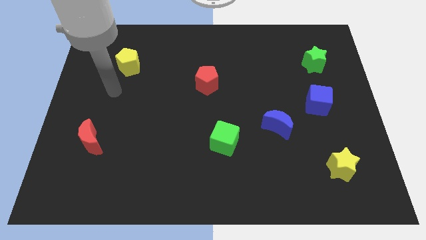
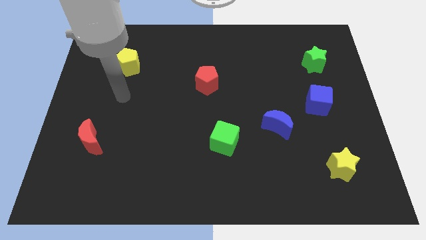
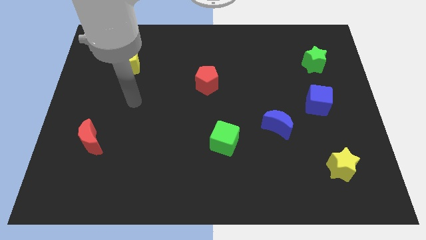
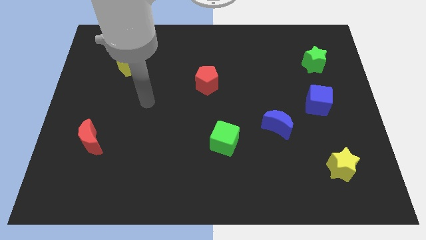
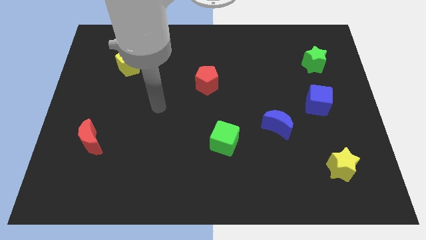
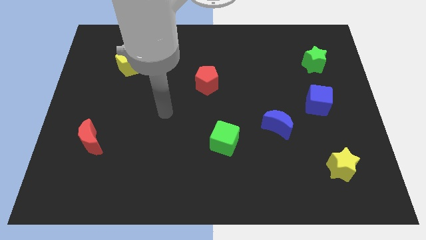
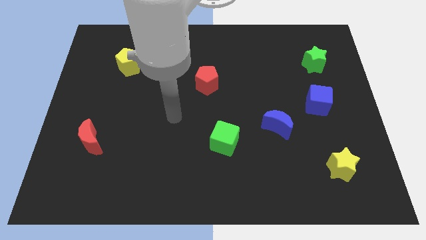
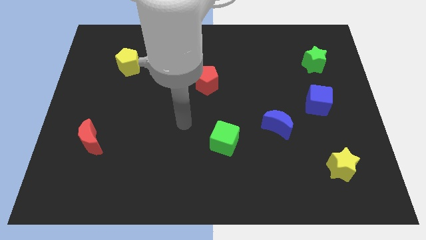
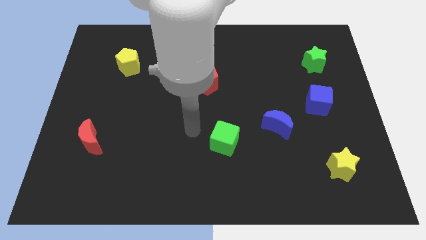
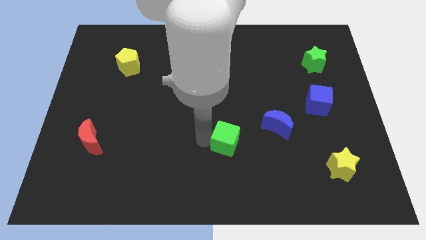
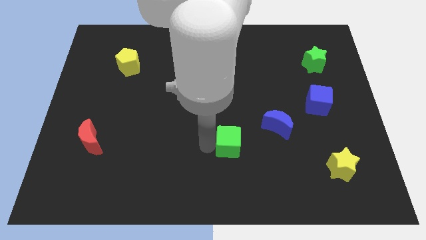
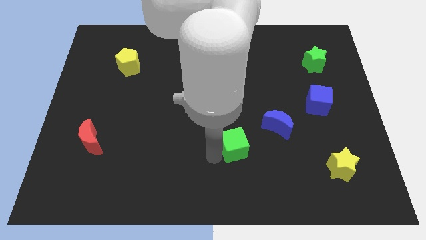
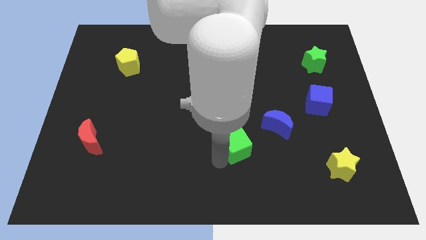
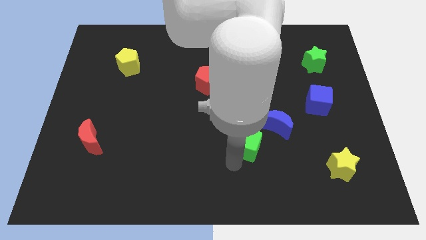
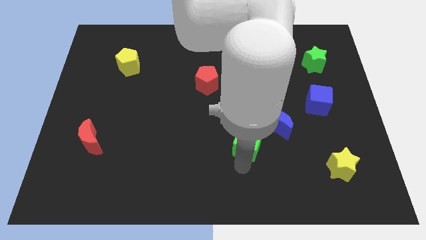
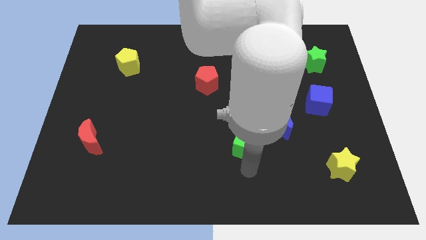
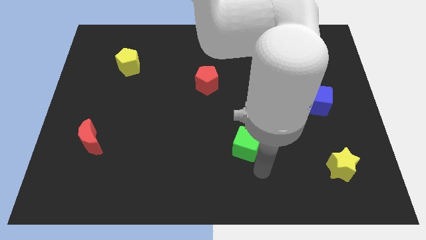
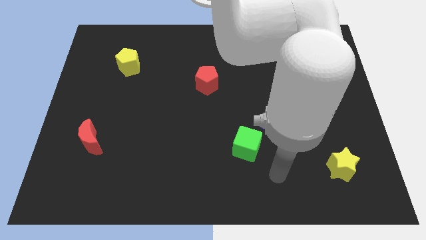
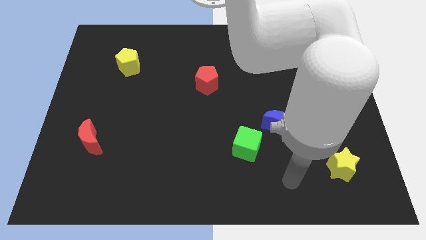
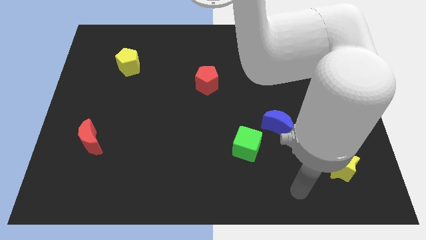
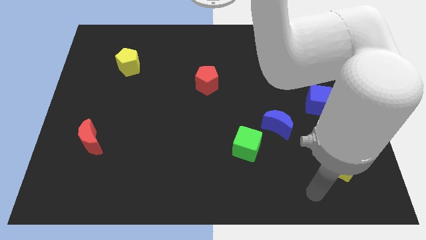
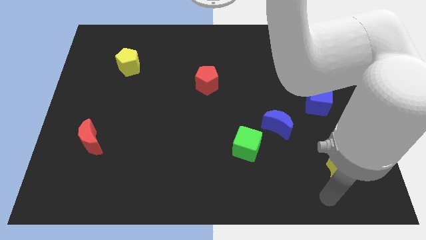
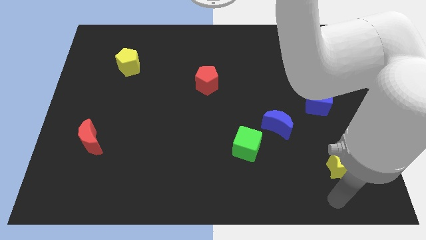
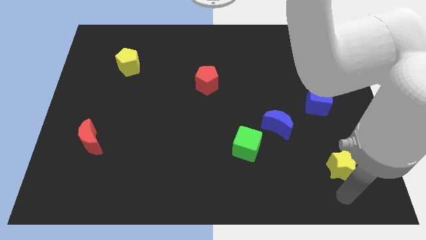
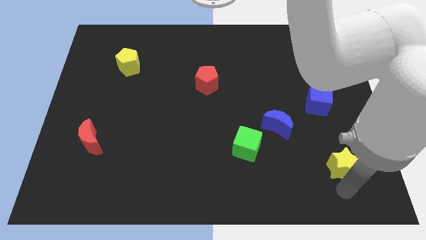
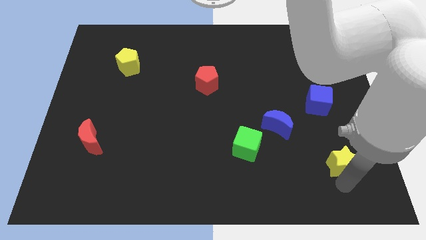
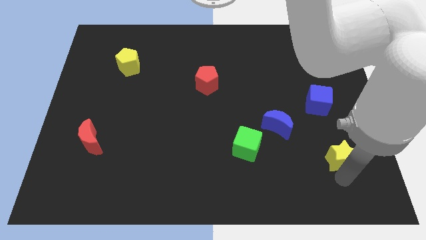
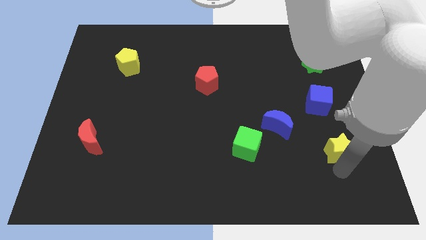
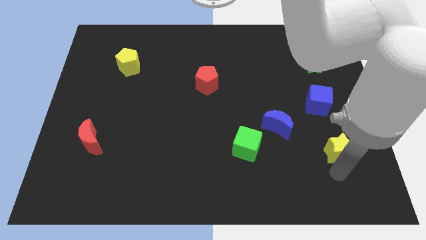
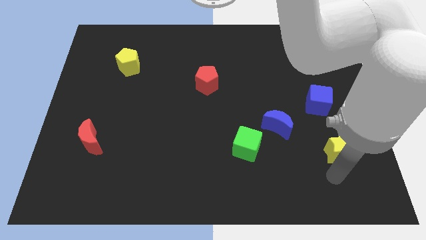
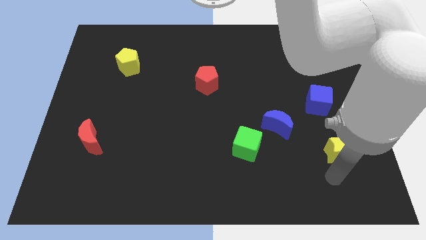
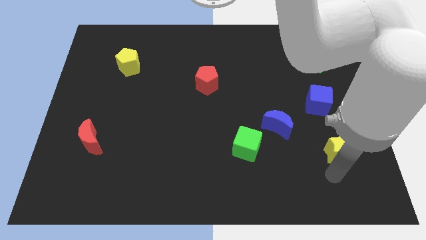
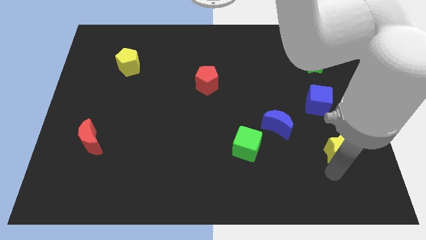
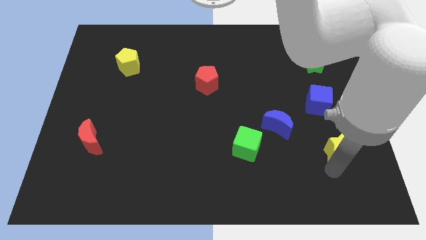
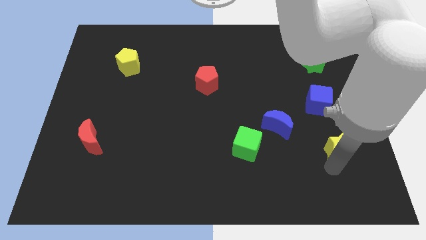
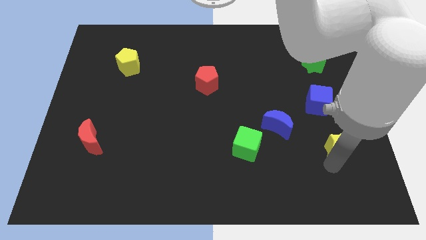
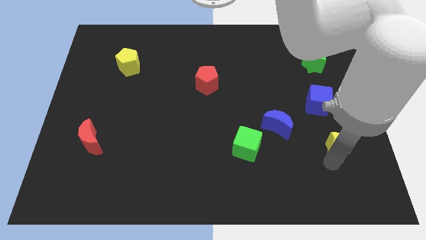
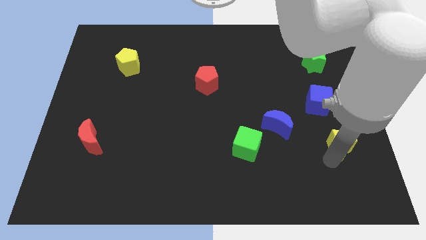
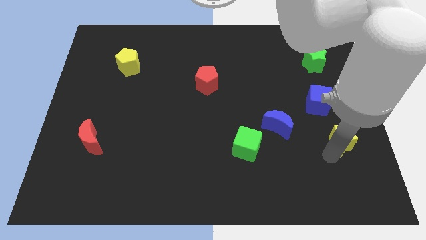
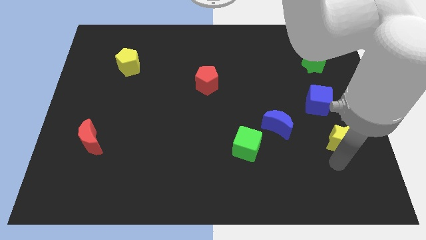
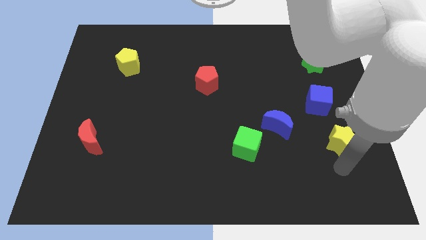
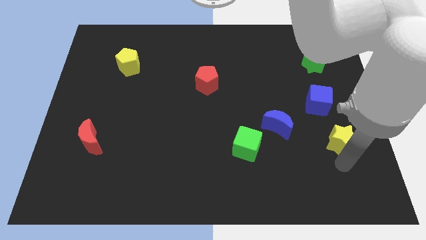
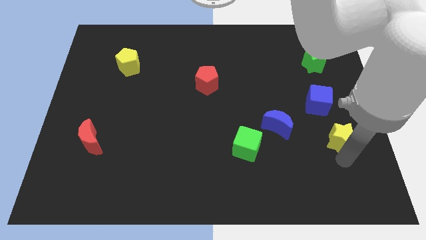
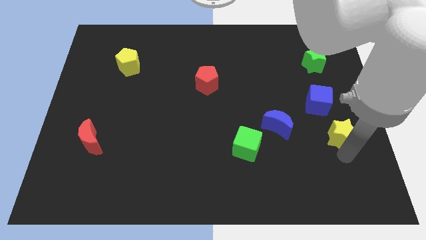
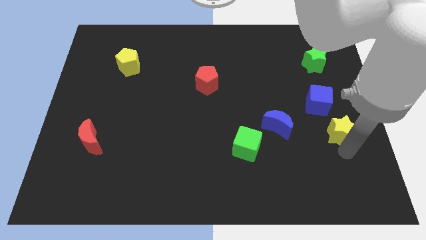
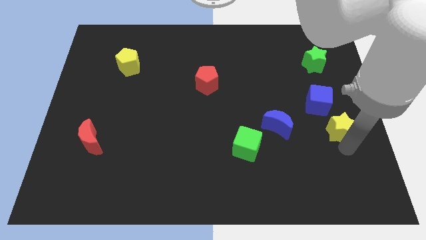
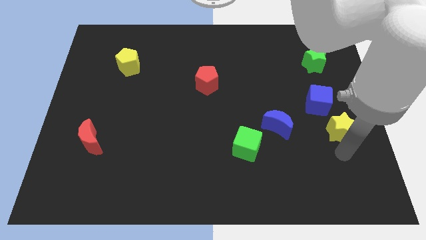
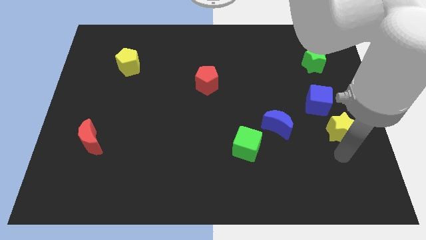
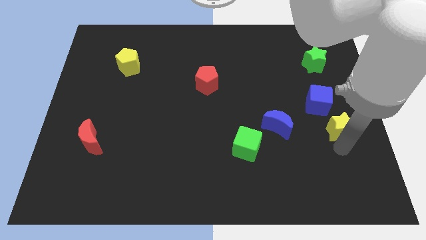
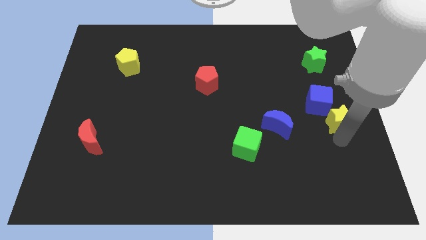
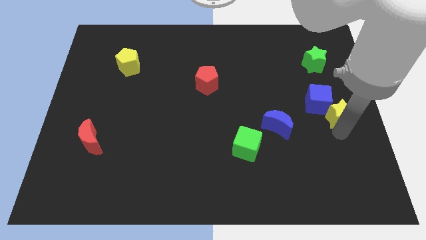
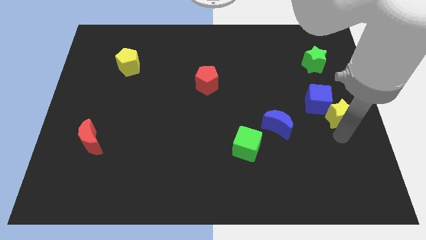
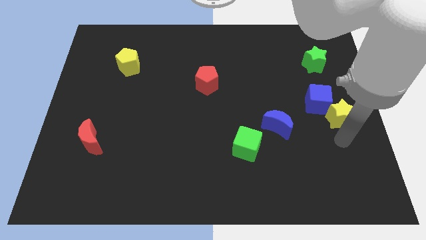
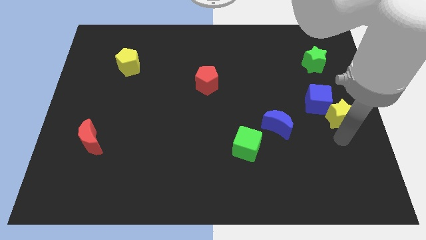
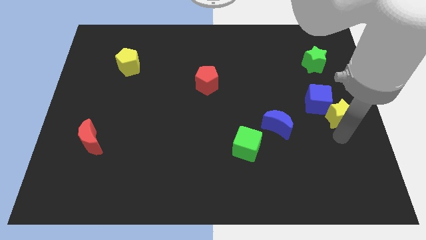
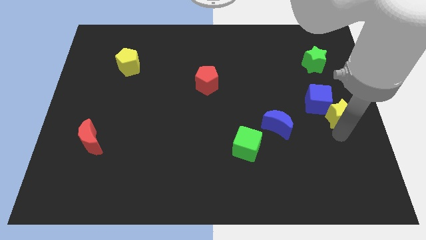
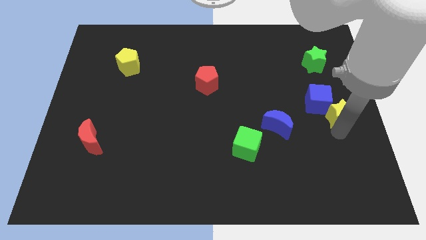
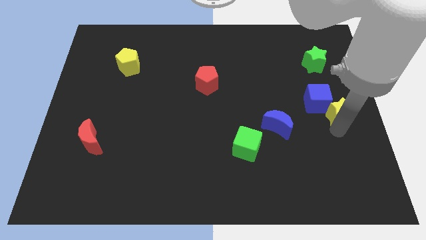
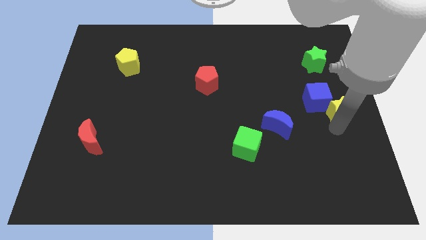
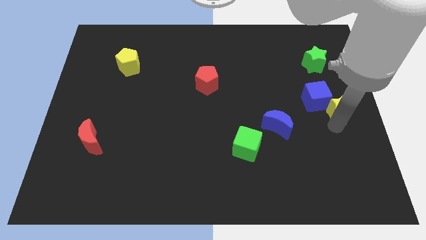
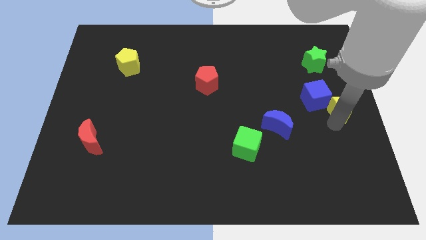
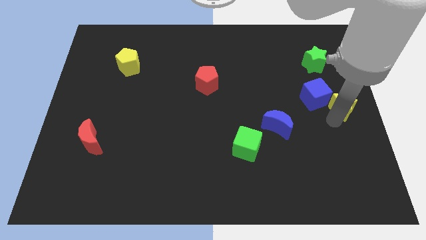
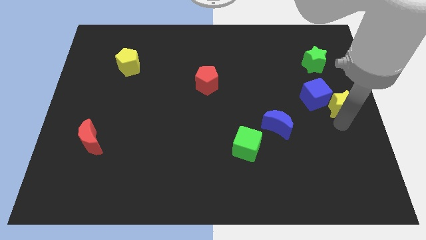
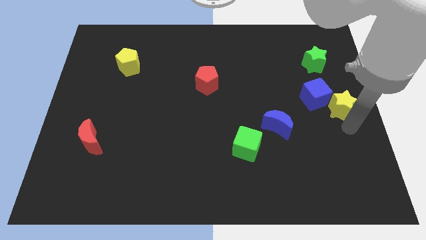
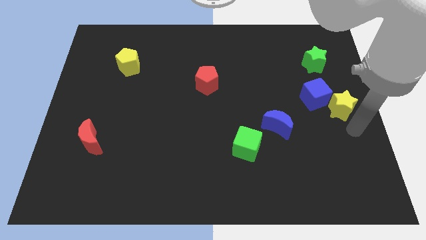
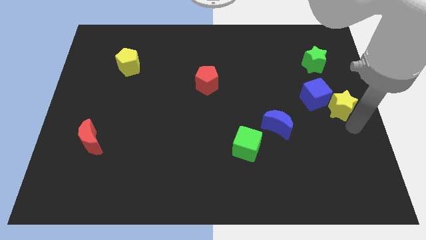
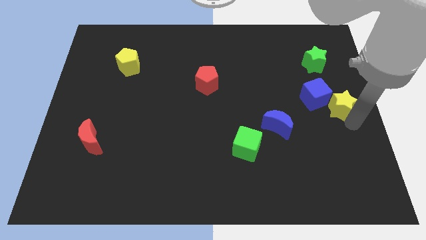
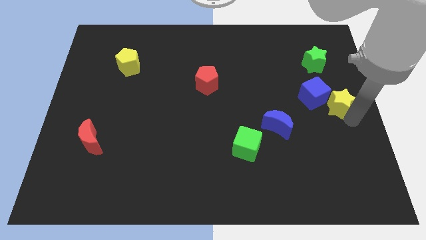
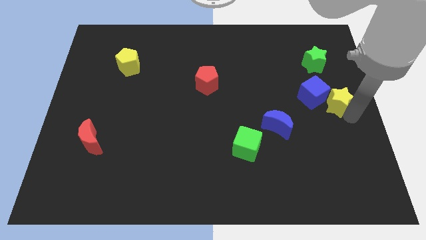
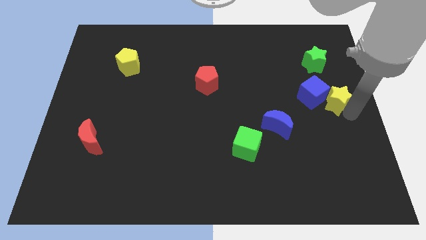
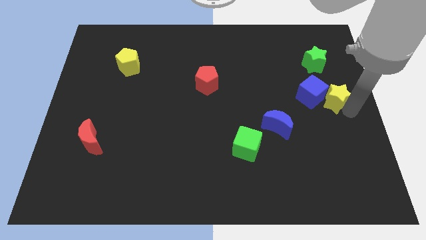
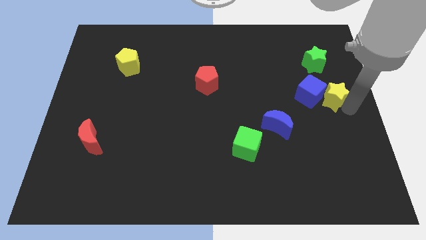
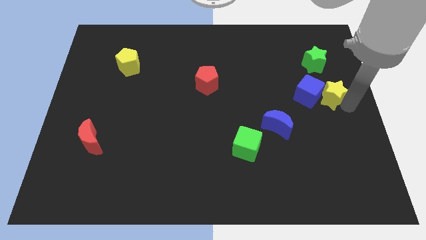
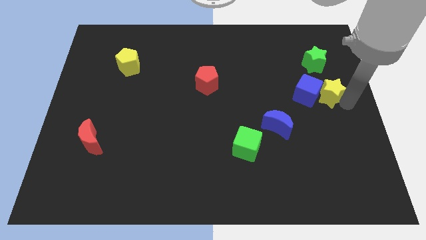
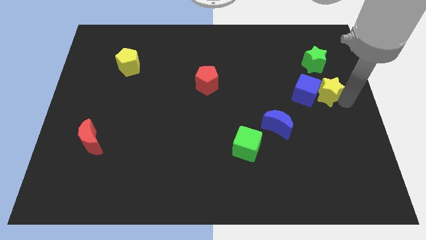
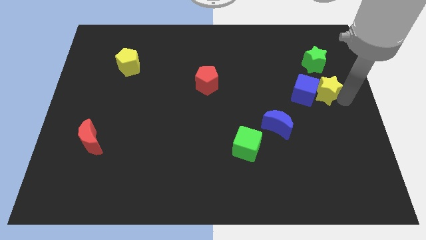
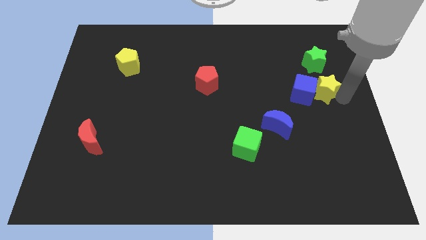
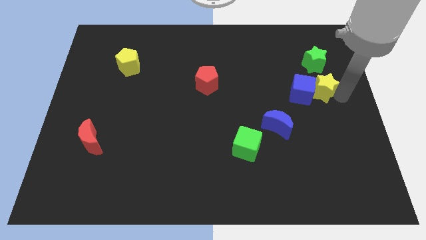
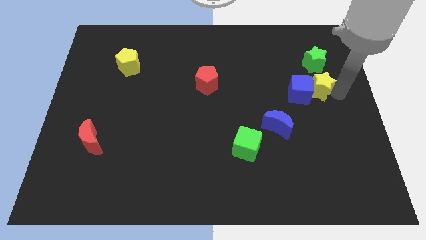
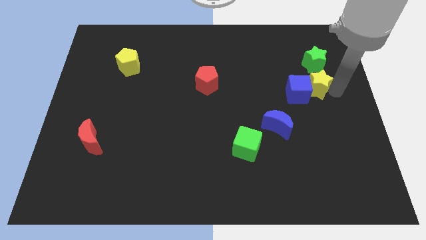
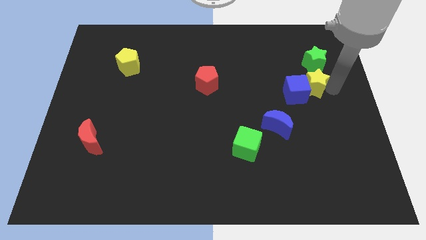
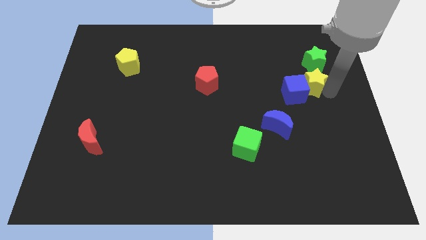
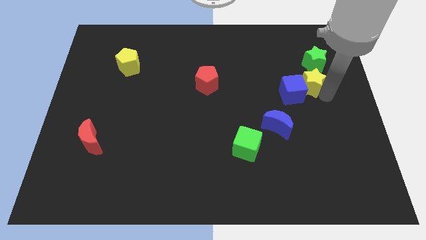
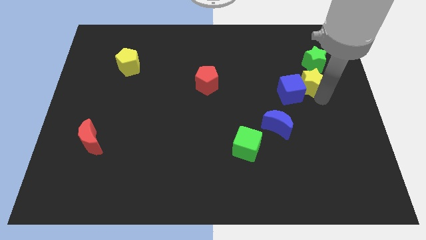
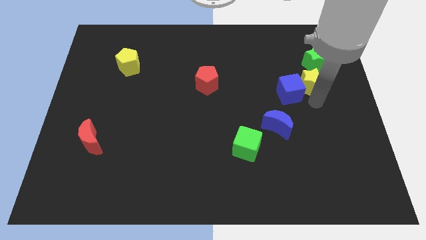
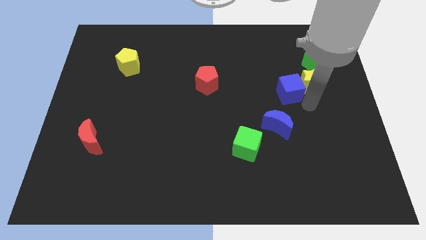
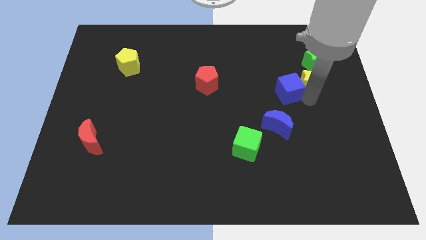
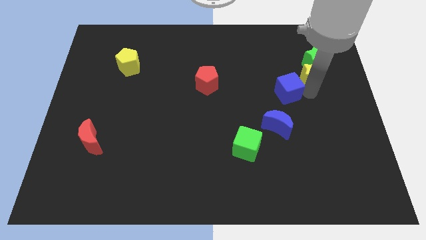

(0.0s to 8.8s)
push the yellow star to the green star
